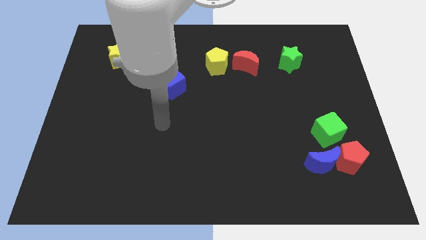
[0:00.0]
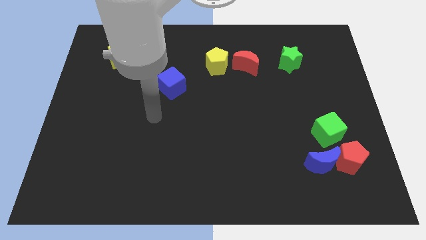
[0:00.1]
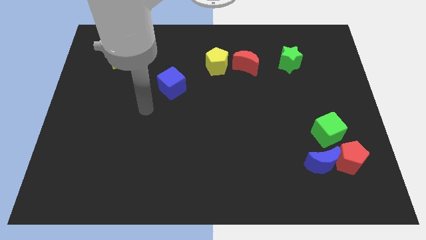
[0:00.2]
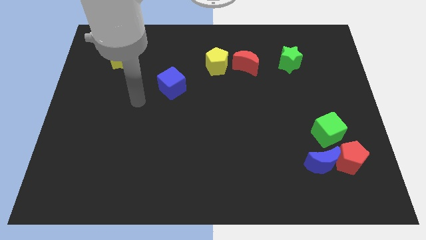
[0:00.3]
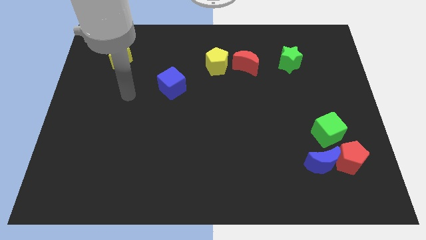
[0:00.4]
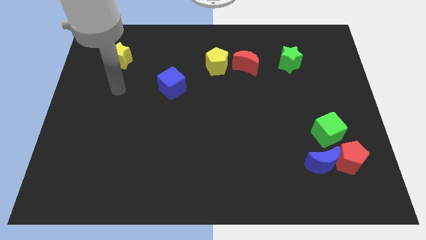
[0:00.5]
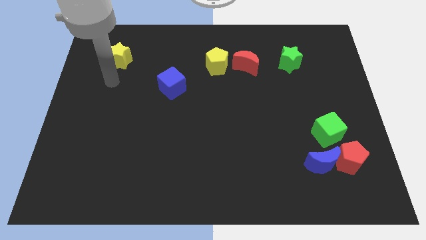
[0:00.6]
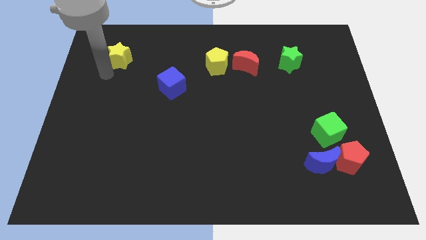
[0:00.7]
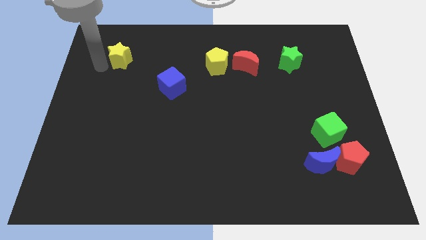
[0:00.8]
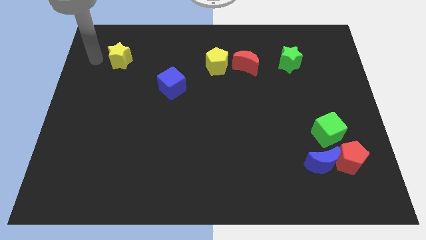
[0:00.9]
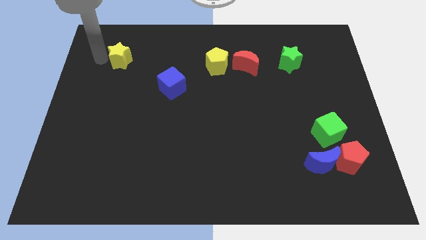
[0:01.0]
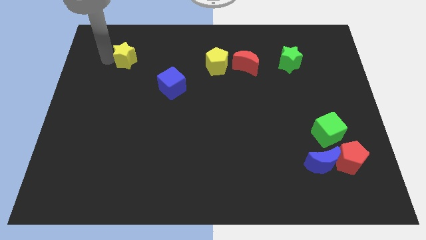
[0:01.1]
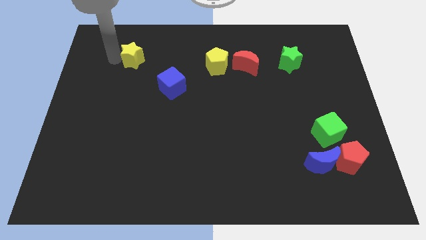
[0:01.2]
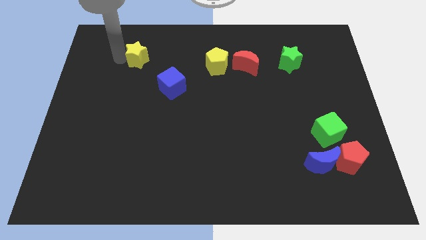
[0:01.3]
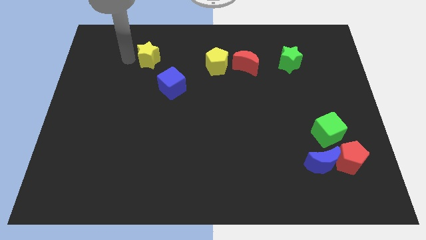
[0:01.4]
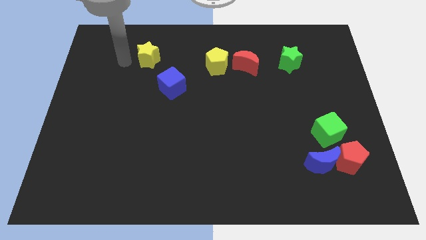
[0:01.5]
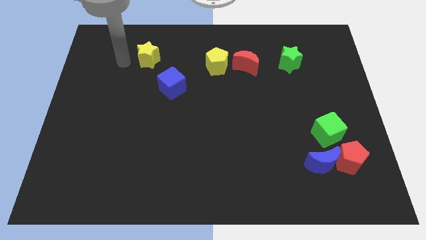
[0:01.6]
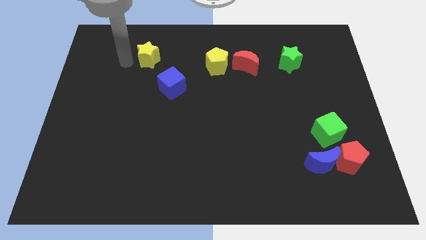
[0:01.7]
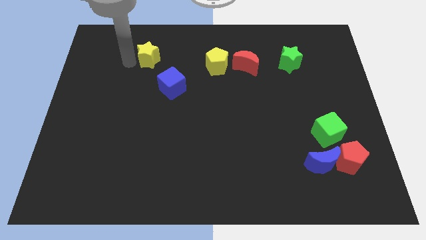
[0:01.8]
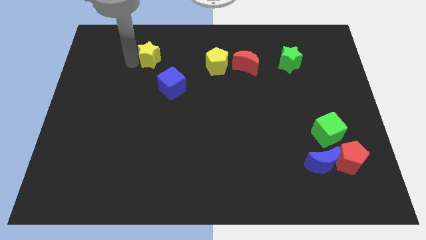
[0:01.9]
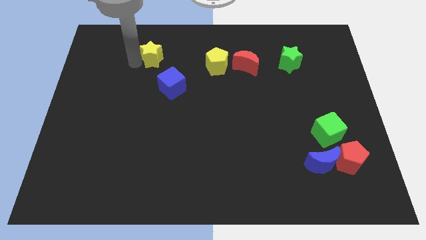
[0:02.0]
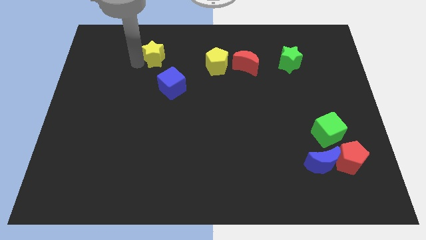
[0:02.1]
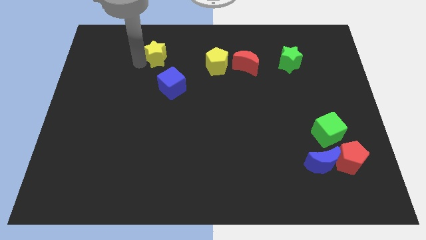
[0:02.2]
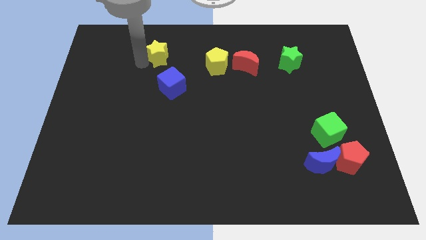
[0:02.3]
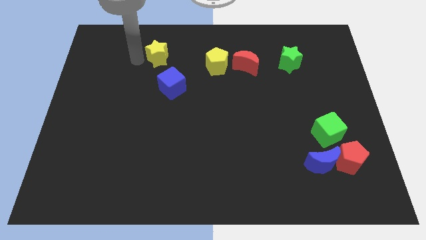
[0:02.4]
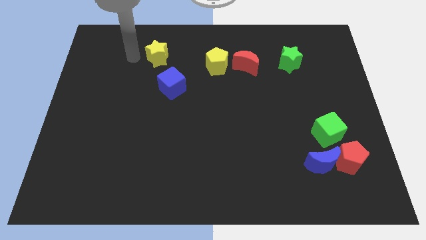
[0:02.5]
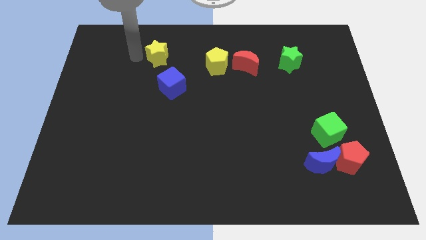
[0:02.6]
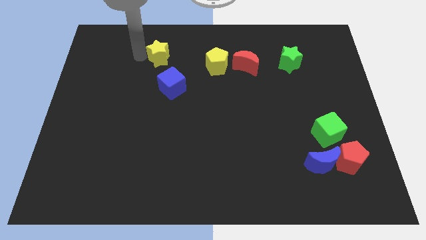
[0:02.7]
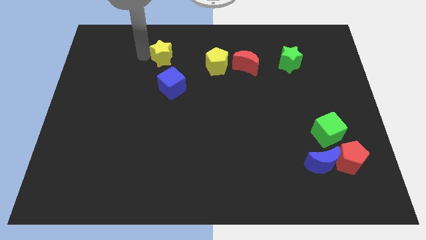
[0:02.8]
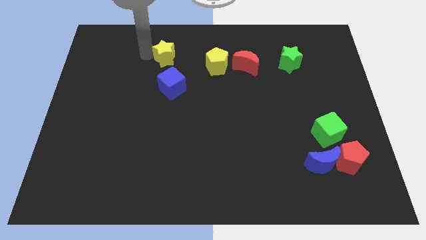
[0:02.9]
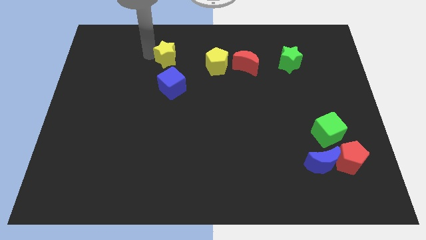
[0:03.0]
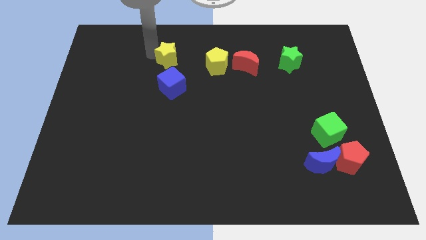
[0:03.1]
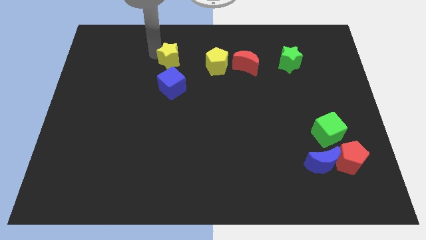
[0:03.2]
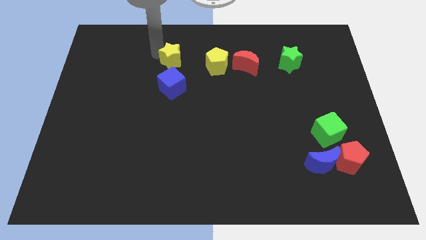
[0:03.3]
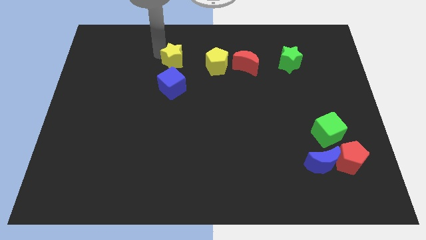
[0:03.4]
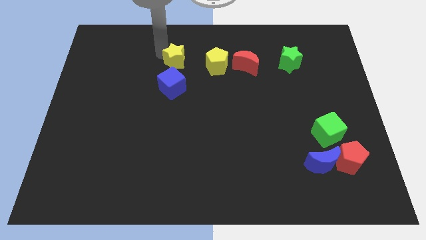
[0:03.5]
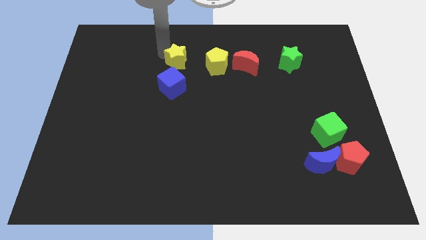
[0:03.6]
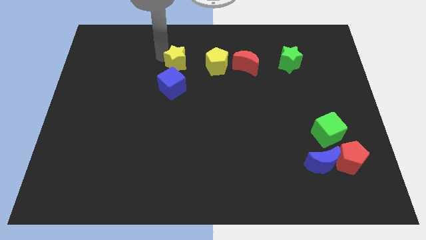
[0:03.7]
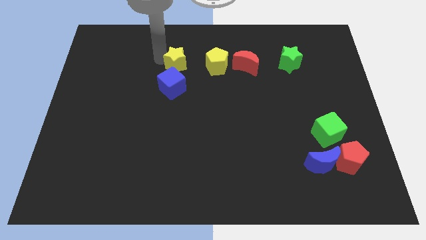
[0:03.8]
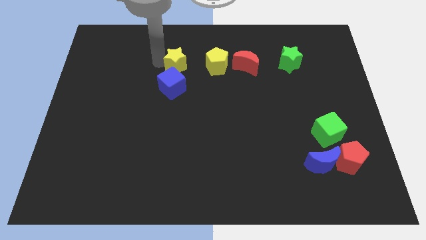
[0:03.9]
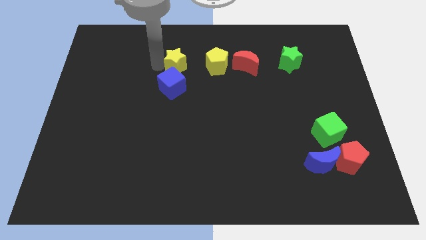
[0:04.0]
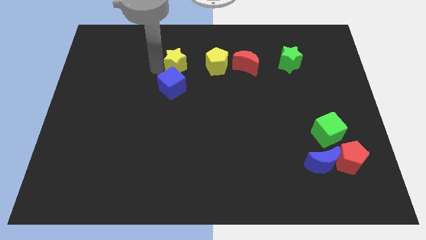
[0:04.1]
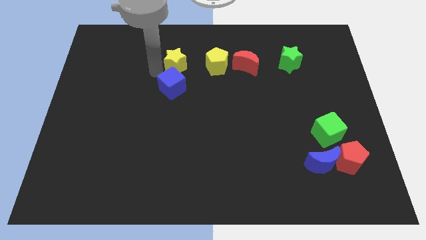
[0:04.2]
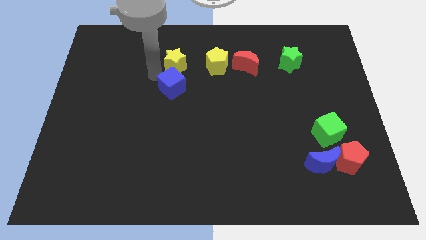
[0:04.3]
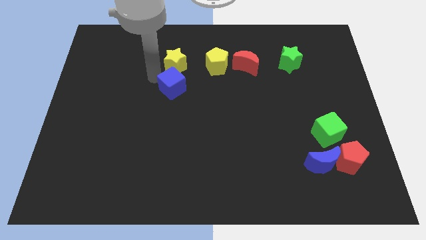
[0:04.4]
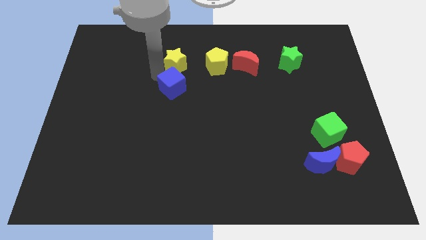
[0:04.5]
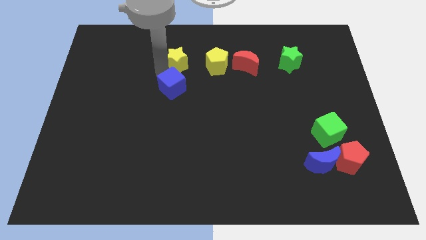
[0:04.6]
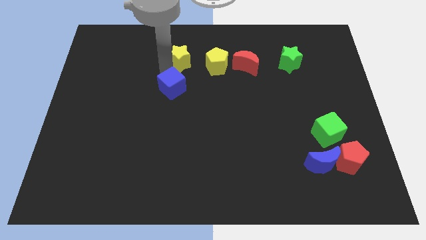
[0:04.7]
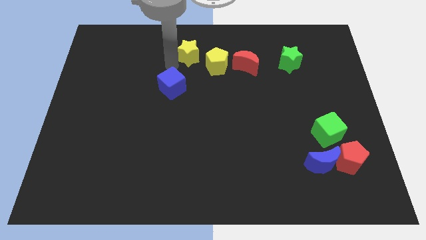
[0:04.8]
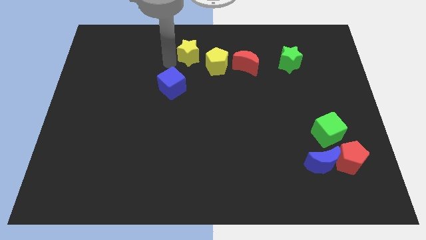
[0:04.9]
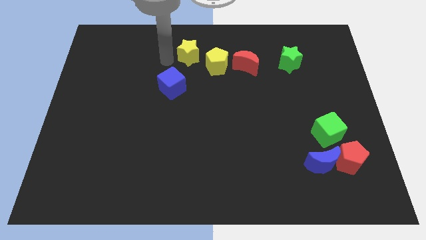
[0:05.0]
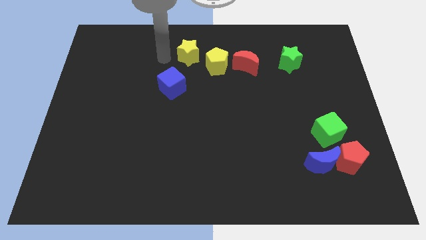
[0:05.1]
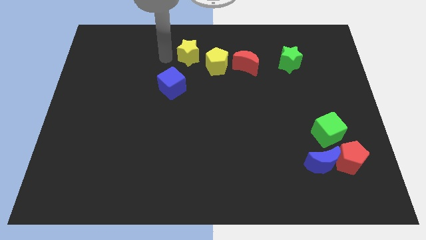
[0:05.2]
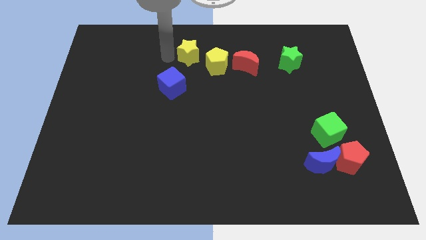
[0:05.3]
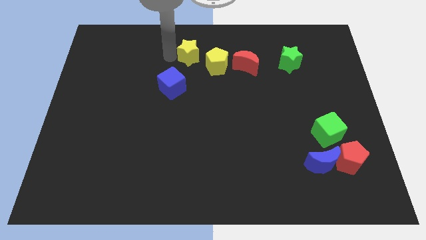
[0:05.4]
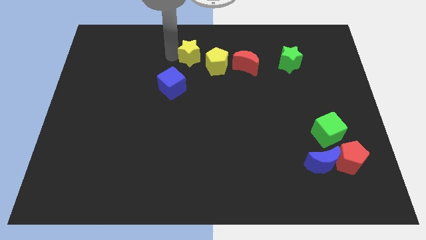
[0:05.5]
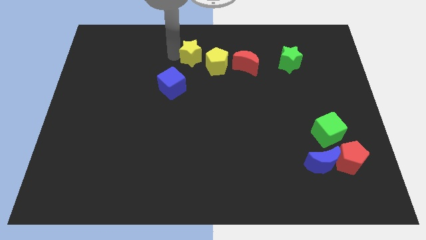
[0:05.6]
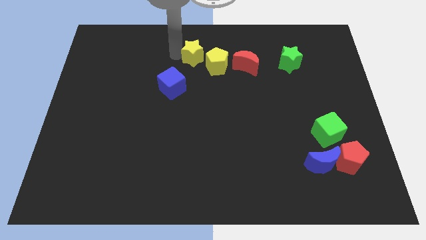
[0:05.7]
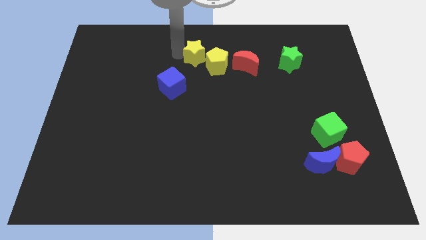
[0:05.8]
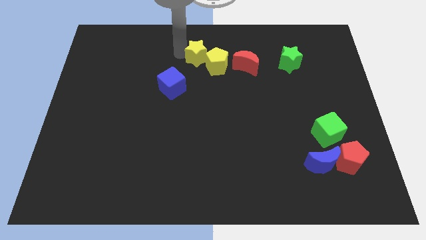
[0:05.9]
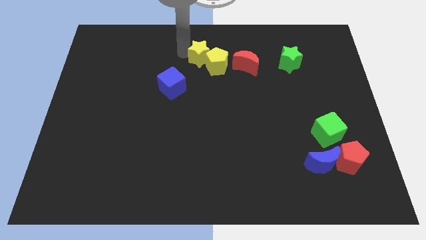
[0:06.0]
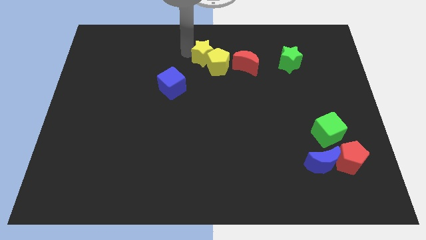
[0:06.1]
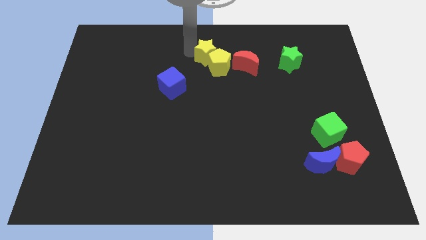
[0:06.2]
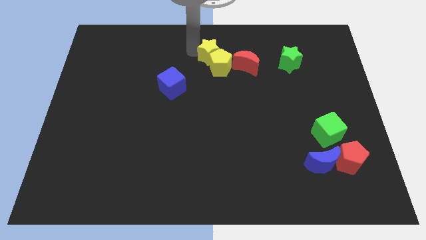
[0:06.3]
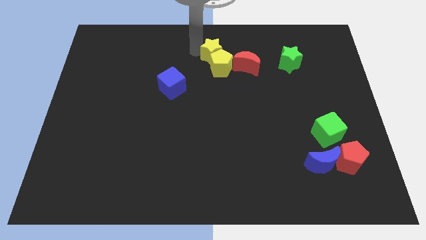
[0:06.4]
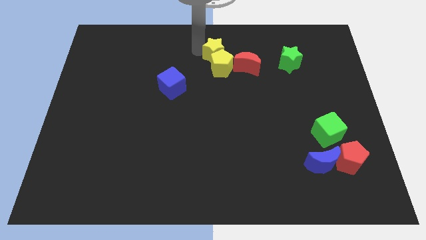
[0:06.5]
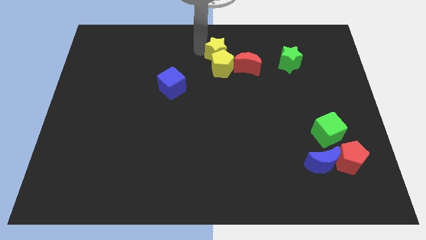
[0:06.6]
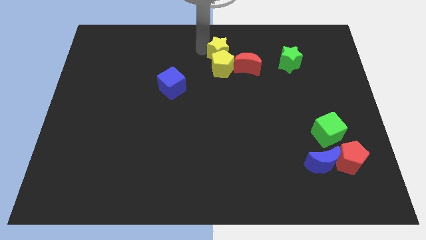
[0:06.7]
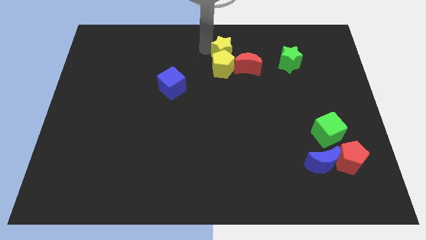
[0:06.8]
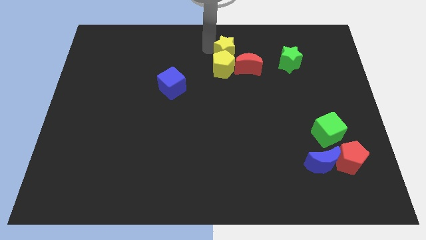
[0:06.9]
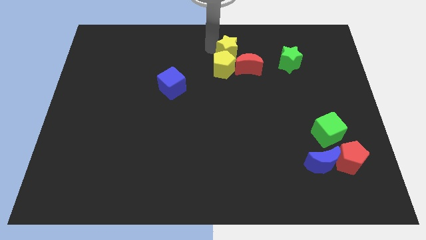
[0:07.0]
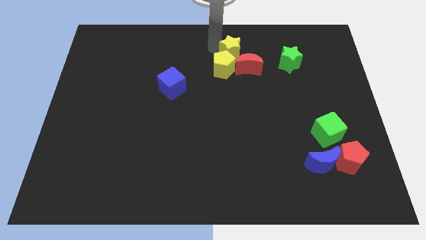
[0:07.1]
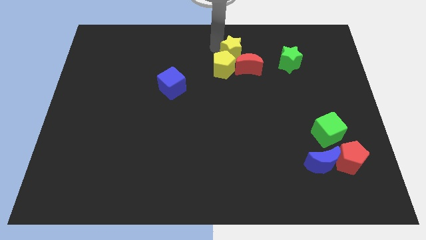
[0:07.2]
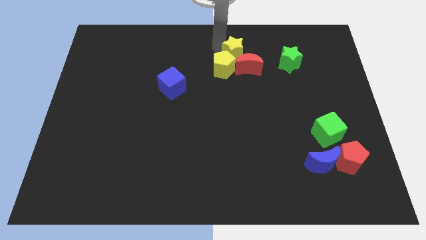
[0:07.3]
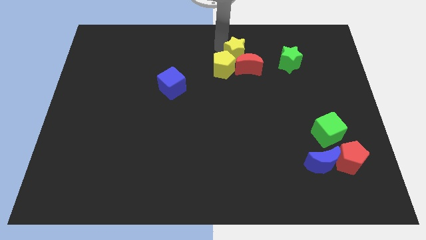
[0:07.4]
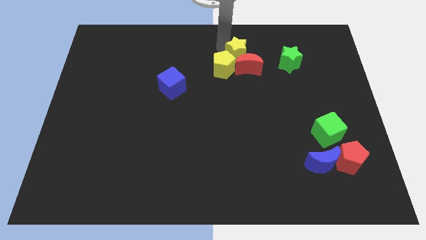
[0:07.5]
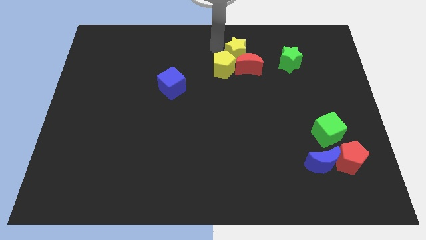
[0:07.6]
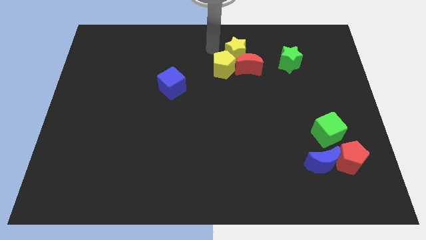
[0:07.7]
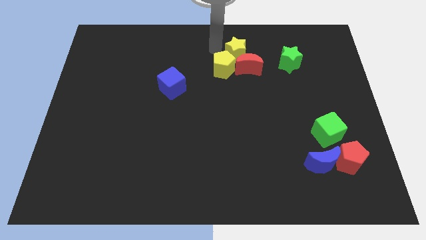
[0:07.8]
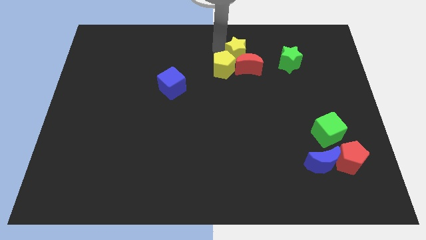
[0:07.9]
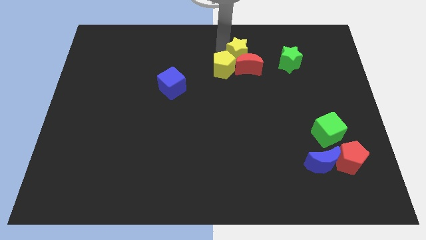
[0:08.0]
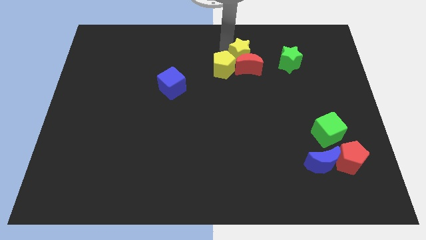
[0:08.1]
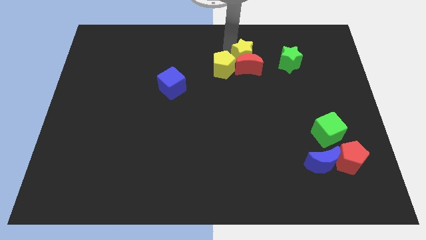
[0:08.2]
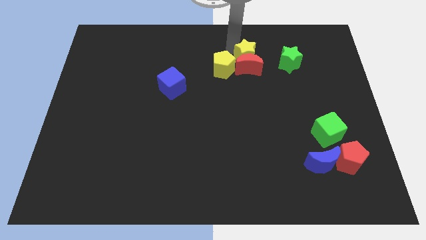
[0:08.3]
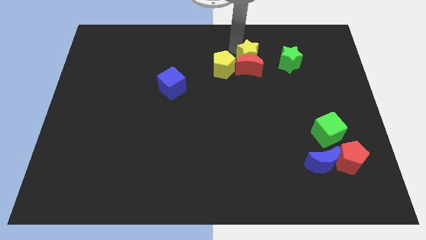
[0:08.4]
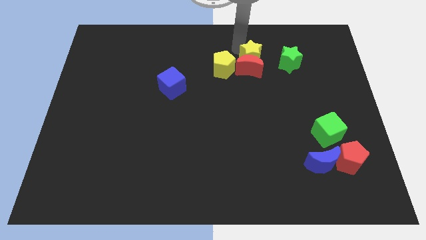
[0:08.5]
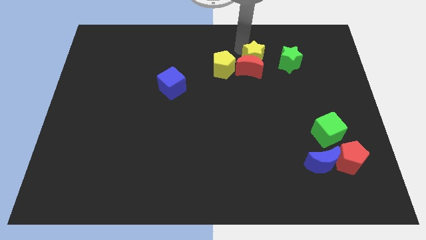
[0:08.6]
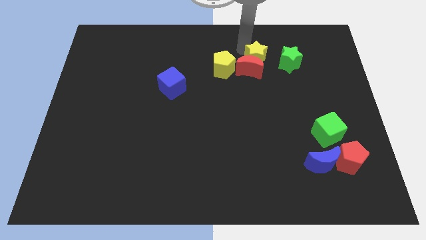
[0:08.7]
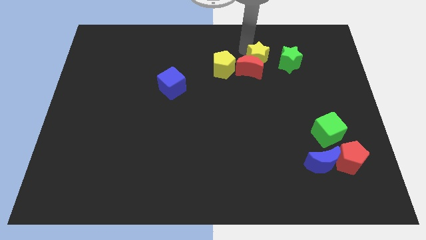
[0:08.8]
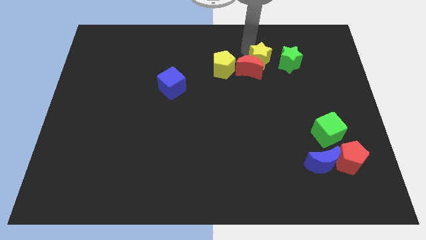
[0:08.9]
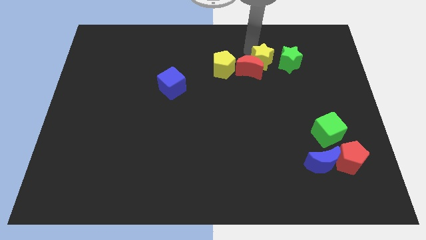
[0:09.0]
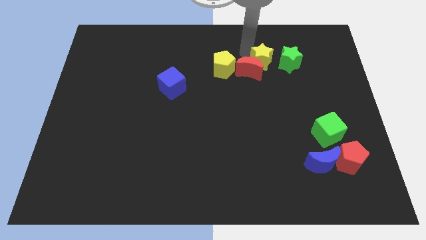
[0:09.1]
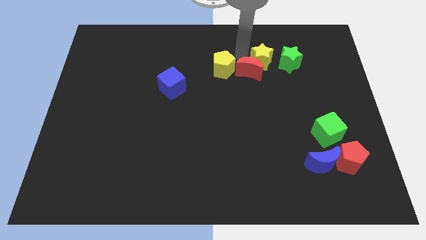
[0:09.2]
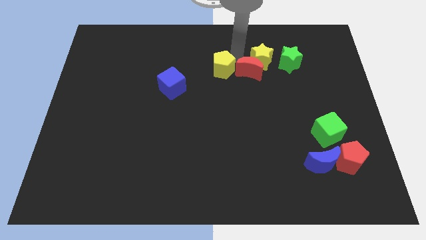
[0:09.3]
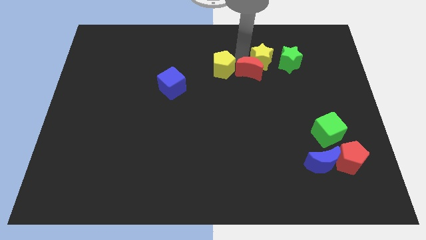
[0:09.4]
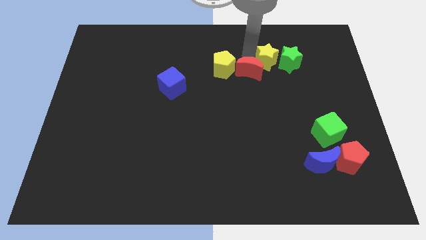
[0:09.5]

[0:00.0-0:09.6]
push the yellow star to the green star
